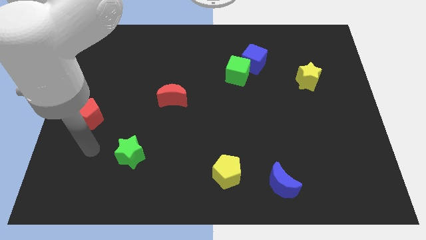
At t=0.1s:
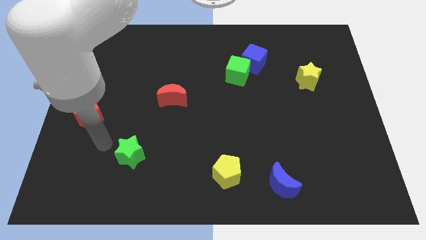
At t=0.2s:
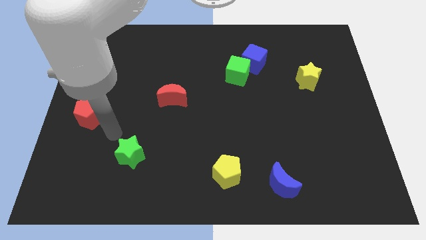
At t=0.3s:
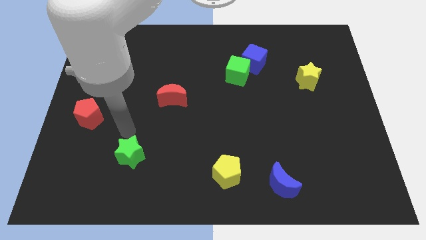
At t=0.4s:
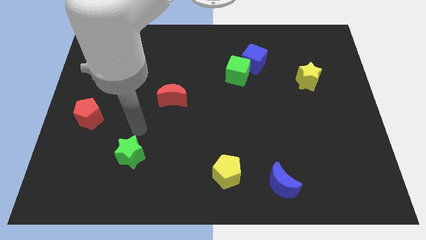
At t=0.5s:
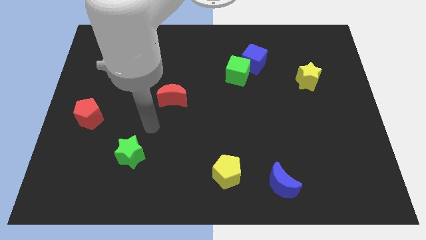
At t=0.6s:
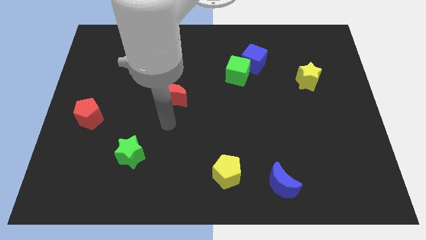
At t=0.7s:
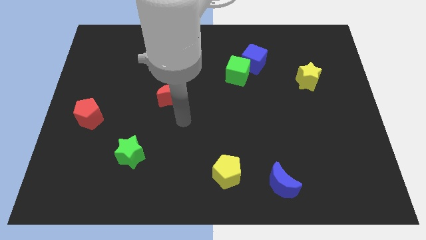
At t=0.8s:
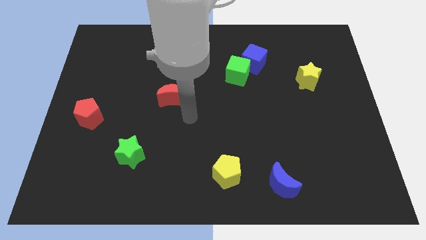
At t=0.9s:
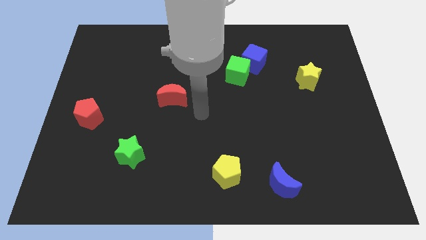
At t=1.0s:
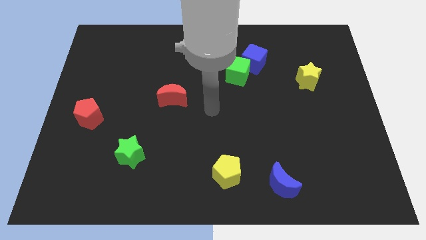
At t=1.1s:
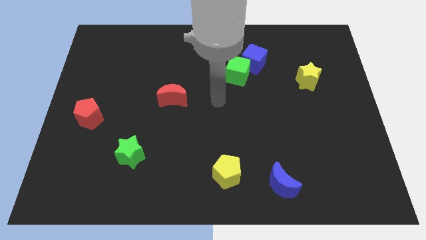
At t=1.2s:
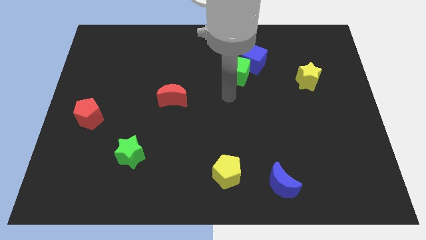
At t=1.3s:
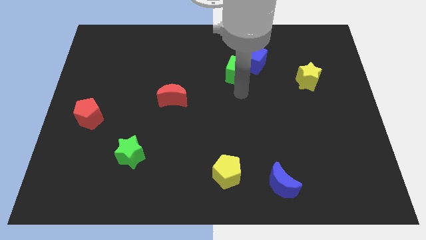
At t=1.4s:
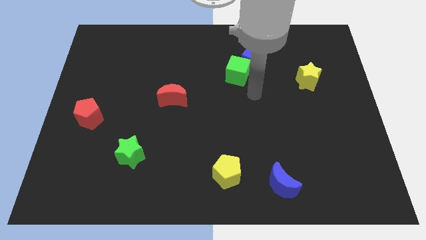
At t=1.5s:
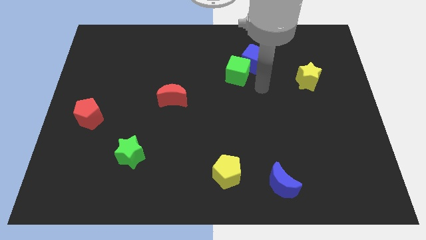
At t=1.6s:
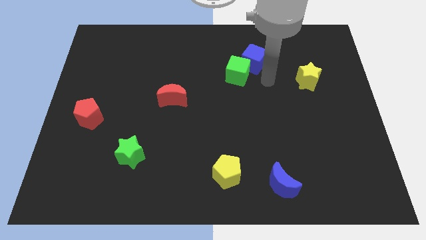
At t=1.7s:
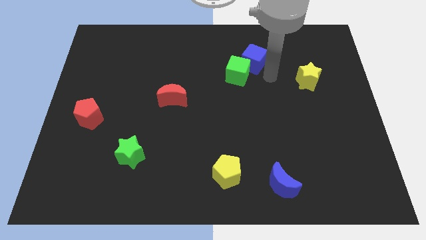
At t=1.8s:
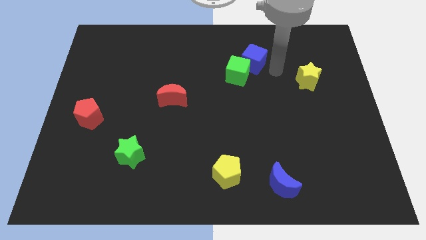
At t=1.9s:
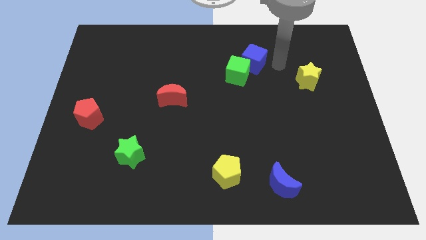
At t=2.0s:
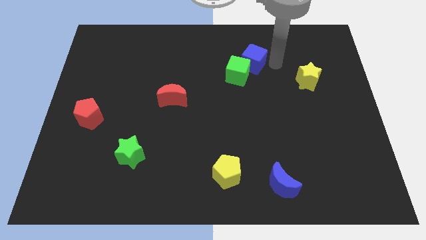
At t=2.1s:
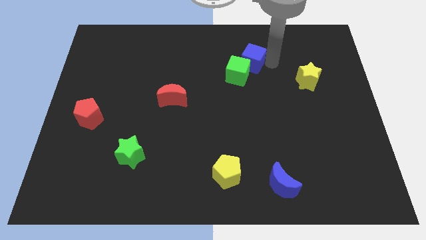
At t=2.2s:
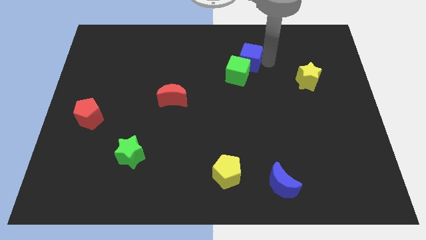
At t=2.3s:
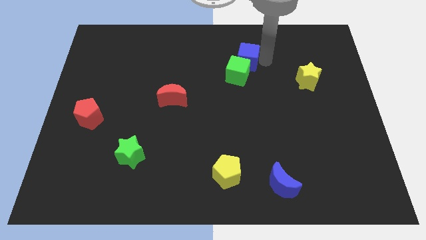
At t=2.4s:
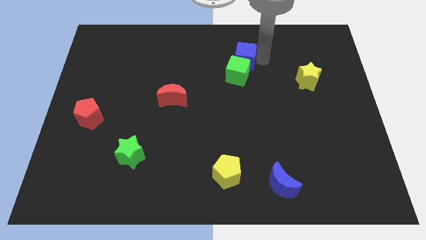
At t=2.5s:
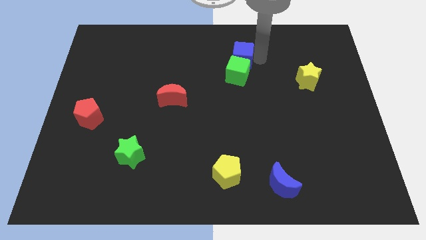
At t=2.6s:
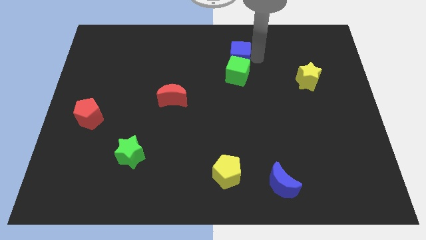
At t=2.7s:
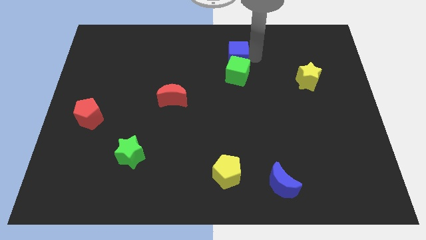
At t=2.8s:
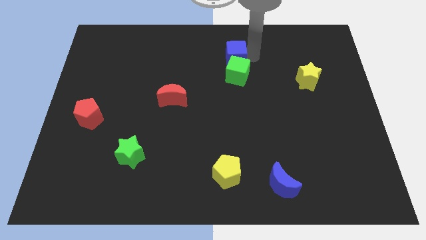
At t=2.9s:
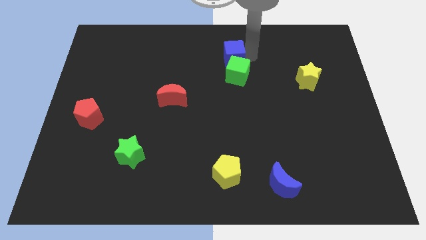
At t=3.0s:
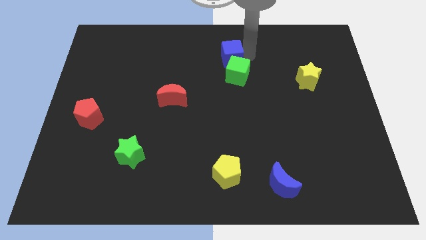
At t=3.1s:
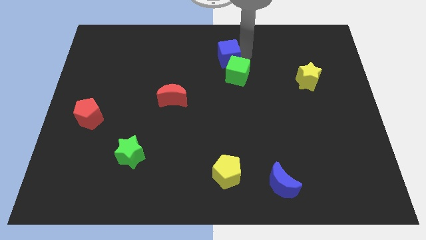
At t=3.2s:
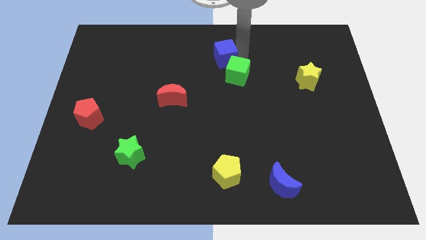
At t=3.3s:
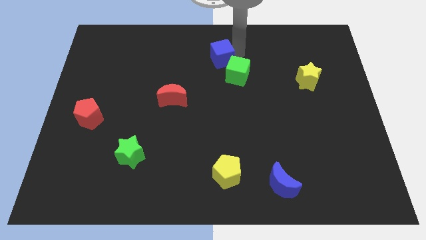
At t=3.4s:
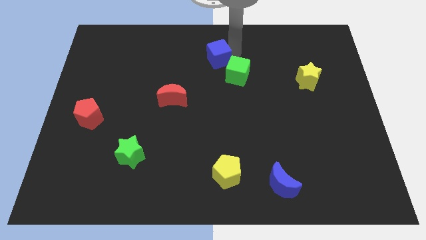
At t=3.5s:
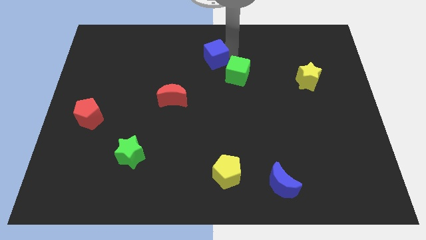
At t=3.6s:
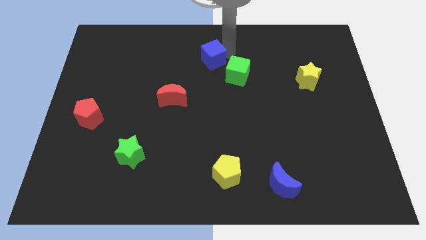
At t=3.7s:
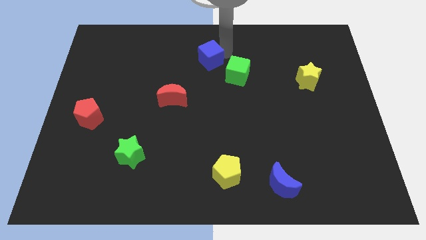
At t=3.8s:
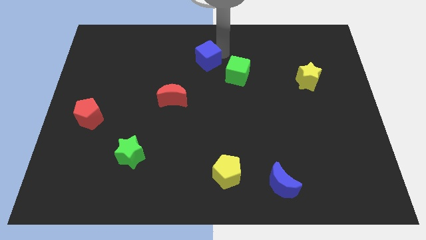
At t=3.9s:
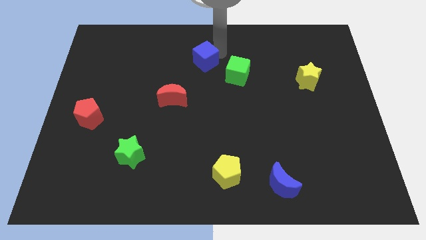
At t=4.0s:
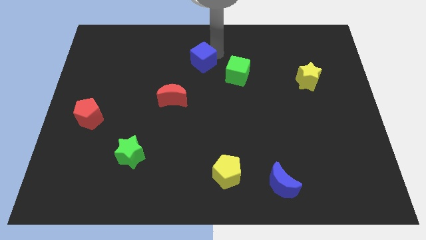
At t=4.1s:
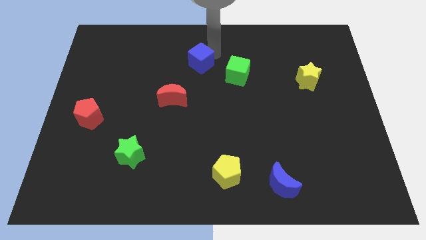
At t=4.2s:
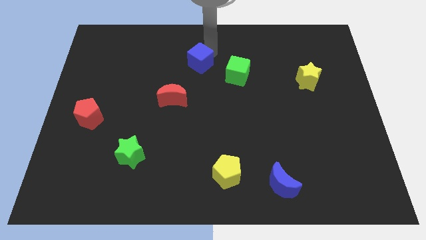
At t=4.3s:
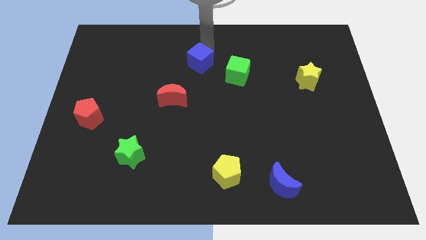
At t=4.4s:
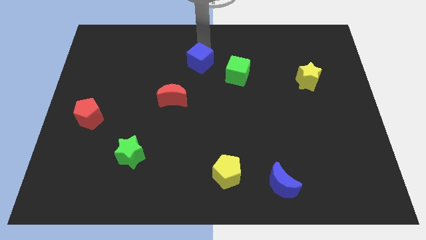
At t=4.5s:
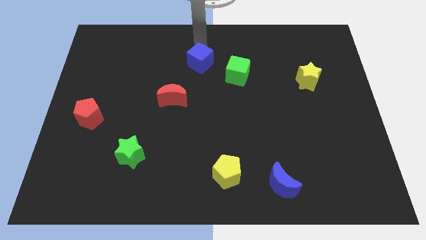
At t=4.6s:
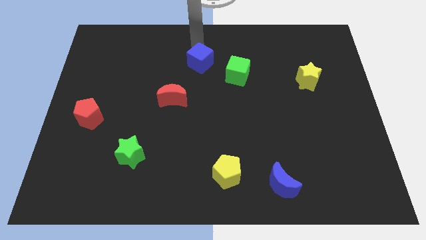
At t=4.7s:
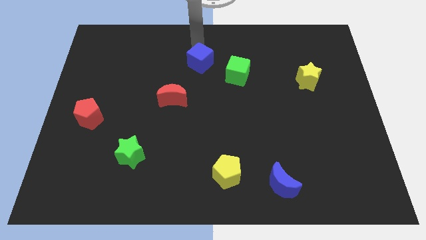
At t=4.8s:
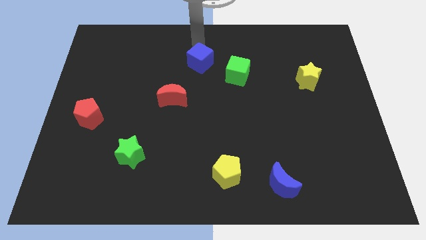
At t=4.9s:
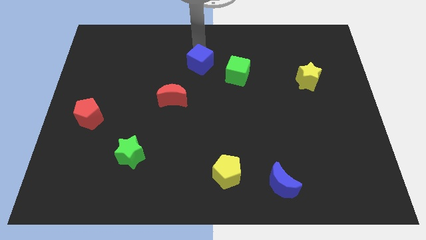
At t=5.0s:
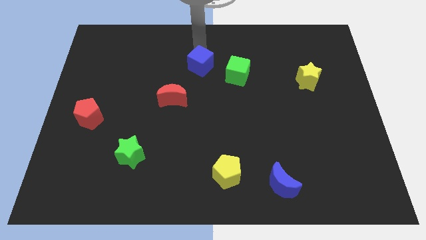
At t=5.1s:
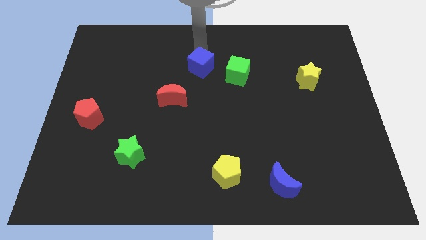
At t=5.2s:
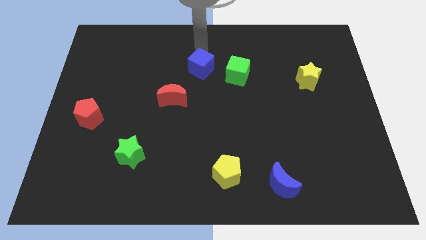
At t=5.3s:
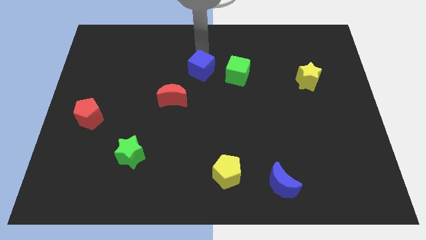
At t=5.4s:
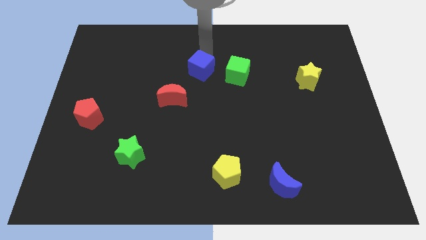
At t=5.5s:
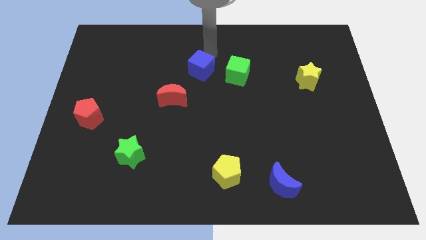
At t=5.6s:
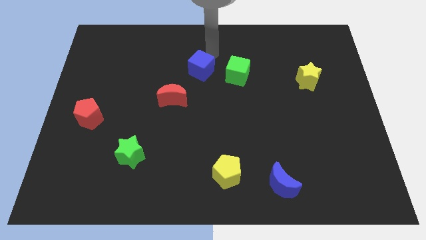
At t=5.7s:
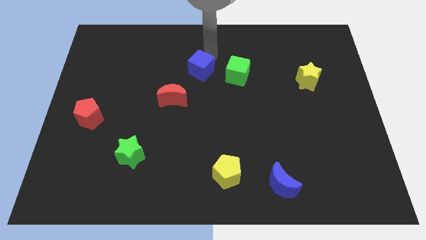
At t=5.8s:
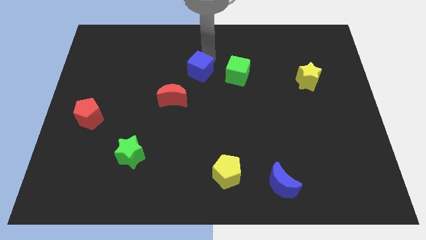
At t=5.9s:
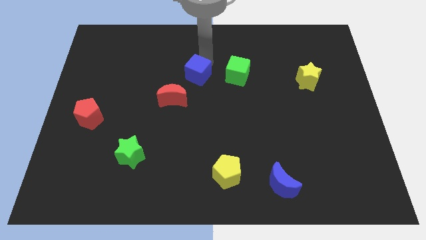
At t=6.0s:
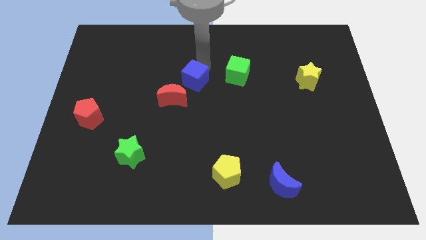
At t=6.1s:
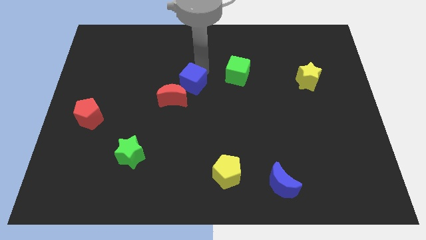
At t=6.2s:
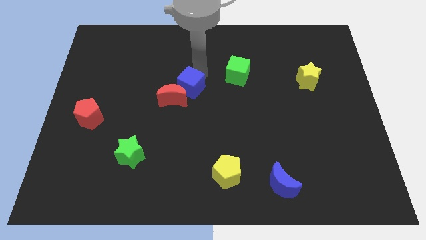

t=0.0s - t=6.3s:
push the blue cube close to the red moon

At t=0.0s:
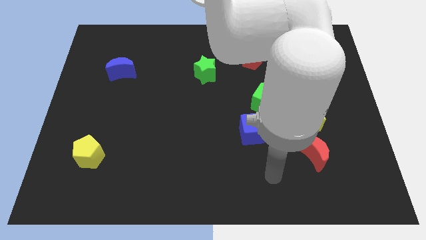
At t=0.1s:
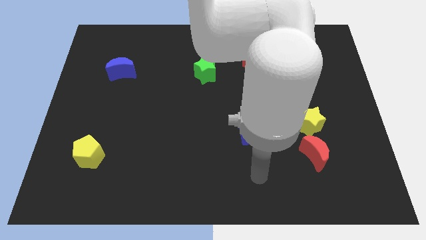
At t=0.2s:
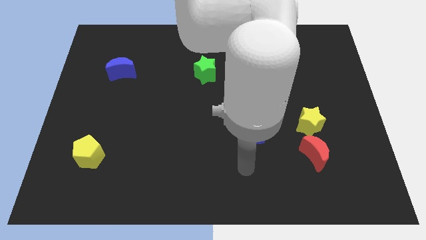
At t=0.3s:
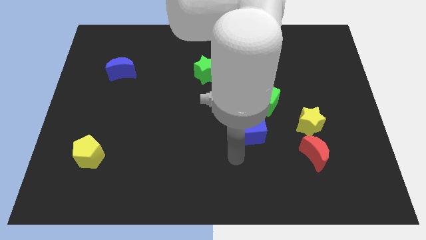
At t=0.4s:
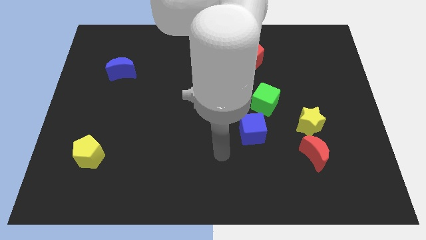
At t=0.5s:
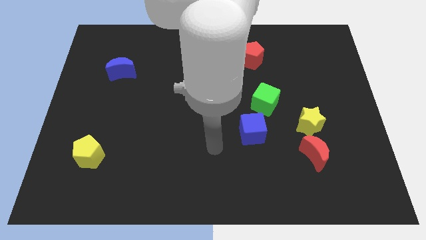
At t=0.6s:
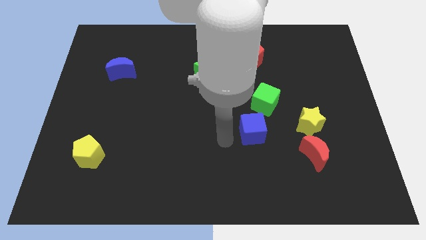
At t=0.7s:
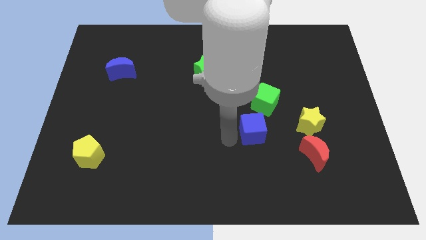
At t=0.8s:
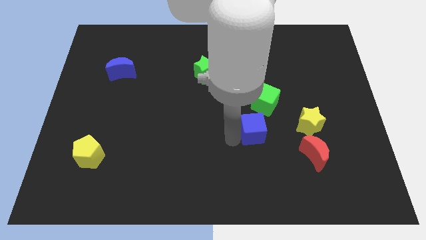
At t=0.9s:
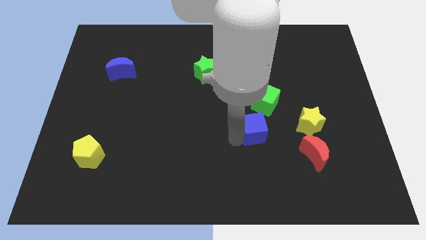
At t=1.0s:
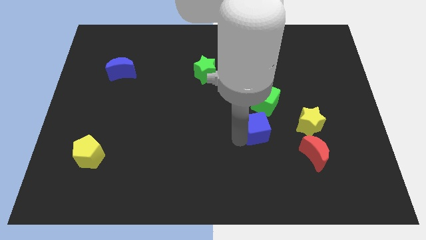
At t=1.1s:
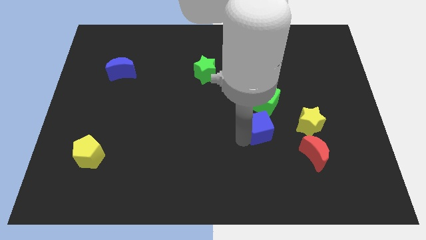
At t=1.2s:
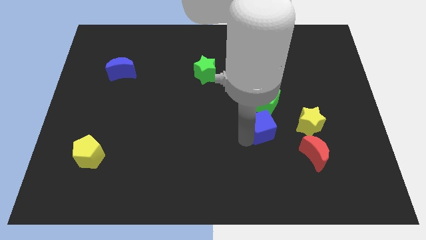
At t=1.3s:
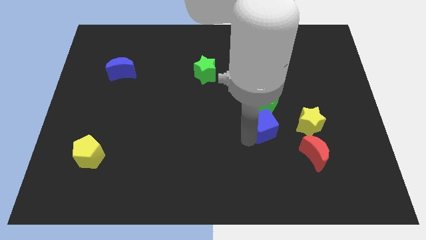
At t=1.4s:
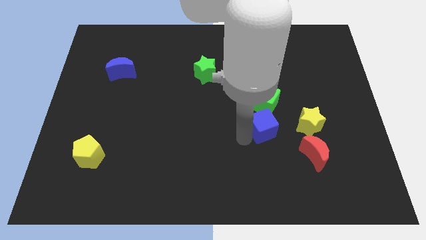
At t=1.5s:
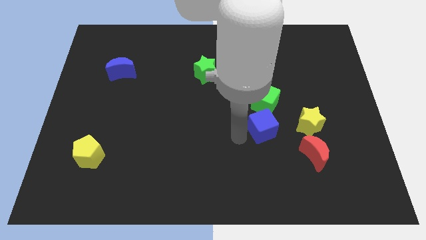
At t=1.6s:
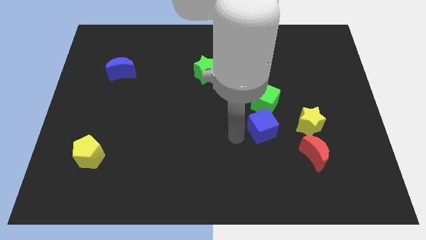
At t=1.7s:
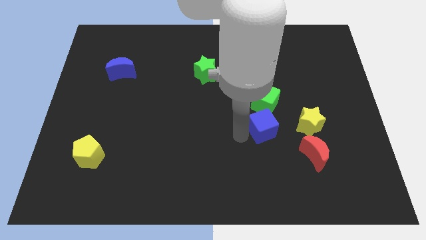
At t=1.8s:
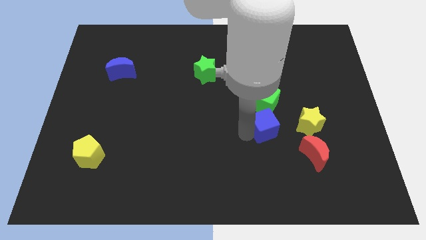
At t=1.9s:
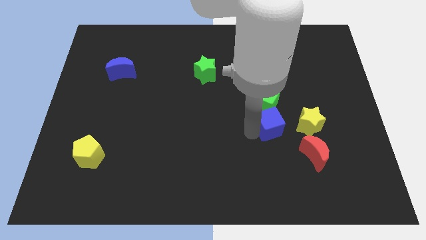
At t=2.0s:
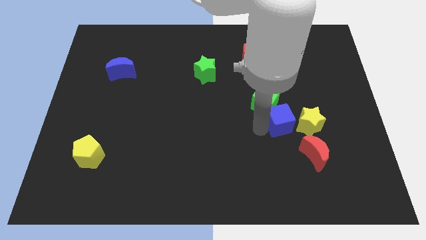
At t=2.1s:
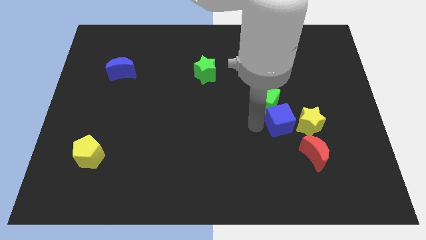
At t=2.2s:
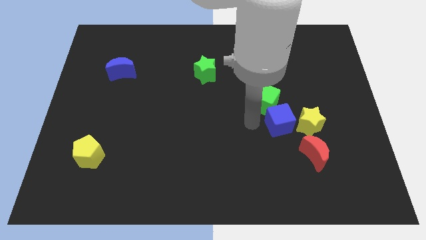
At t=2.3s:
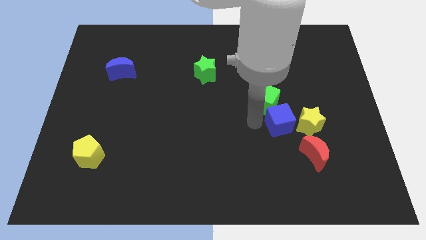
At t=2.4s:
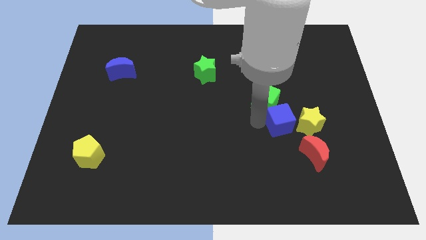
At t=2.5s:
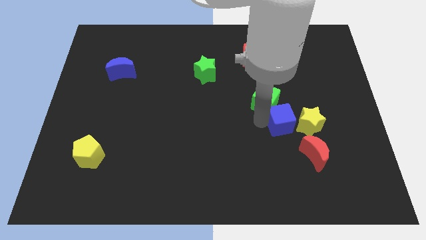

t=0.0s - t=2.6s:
move the blue cube next to the yellow star
